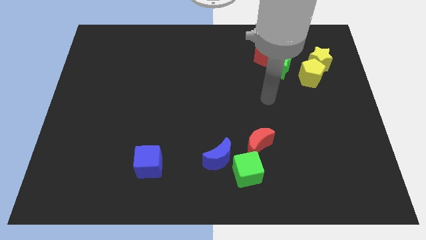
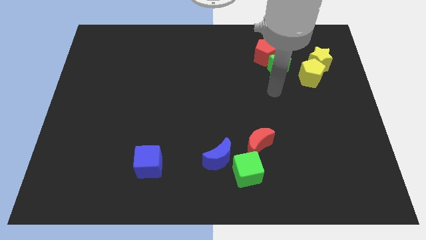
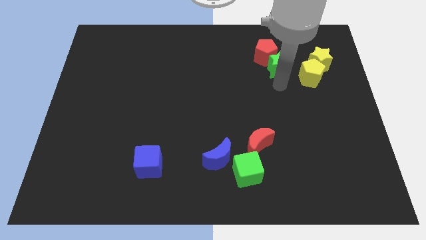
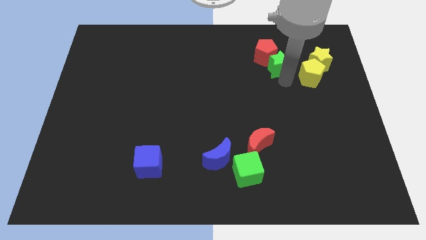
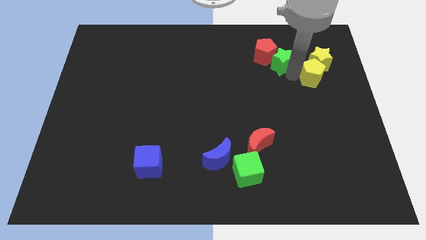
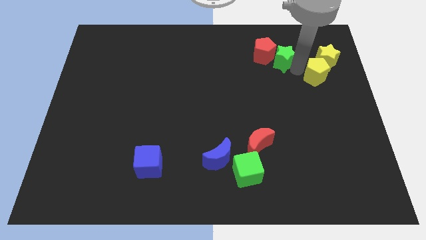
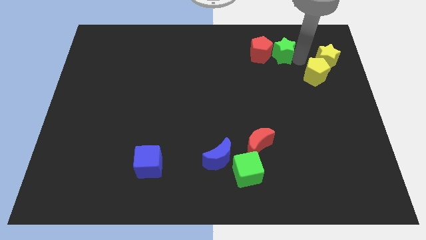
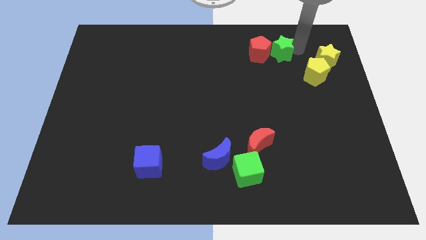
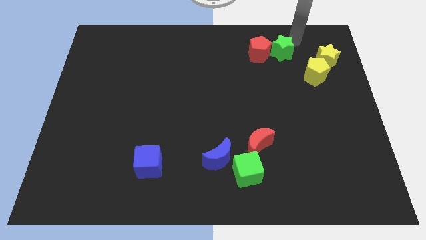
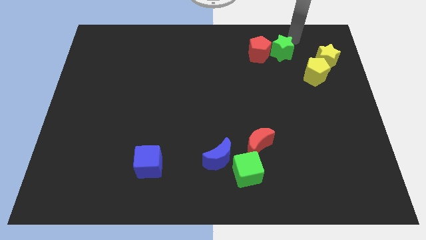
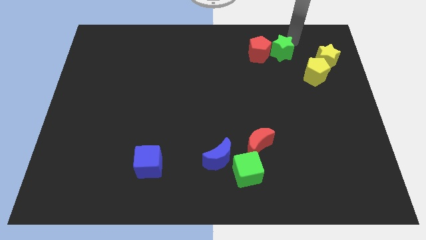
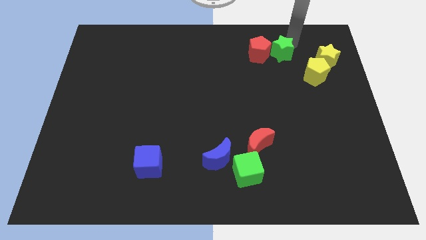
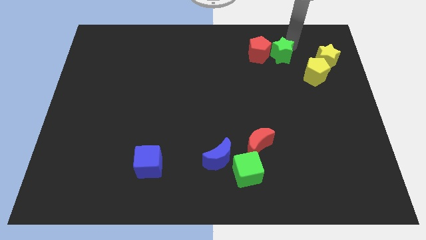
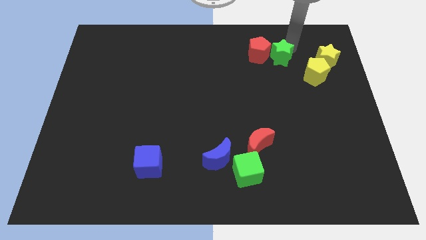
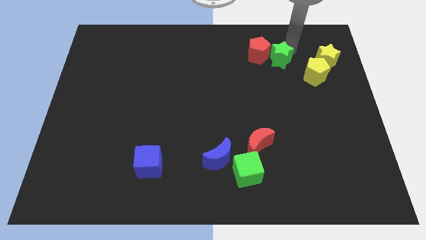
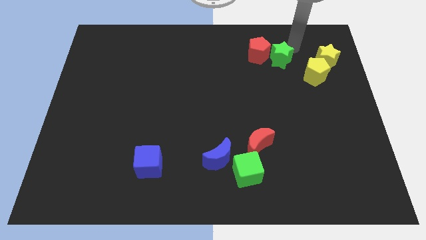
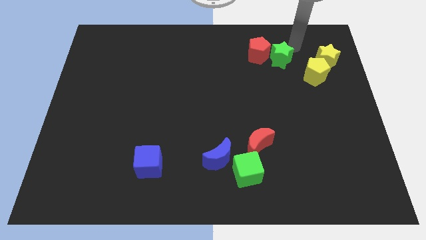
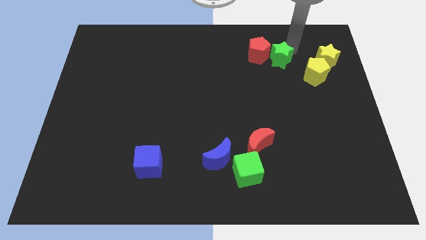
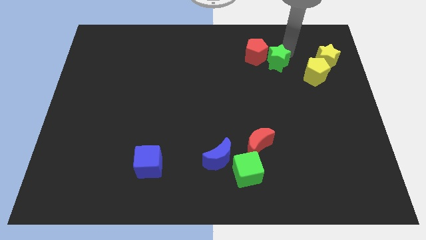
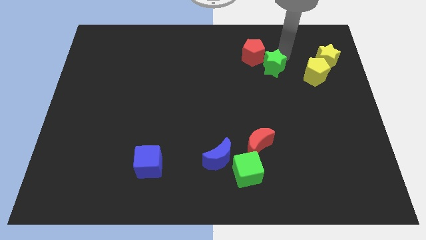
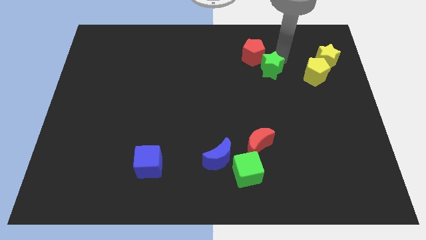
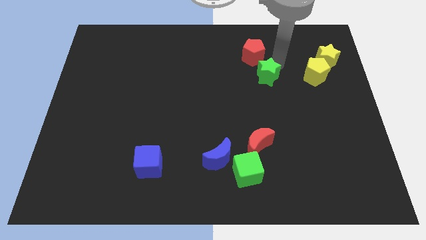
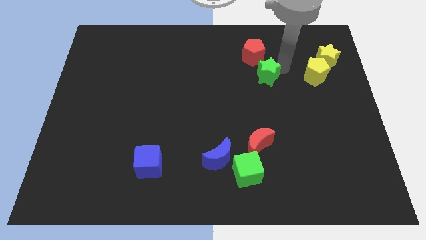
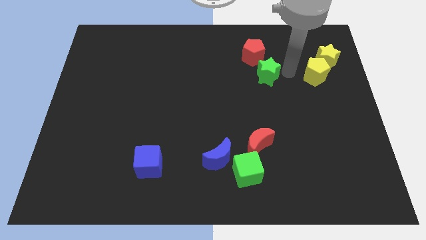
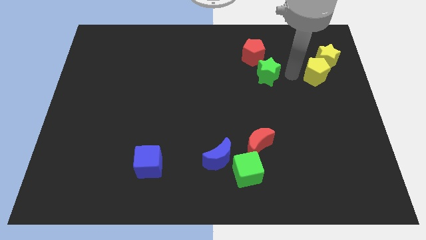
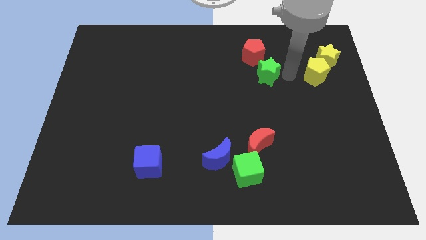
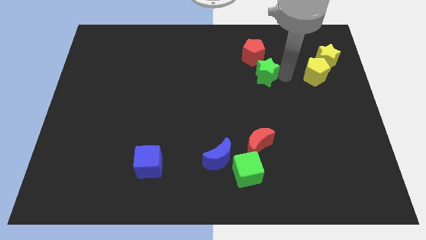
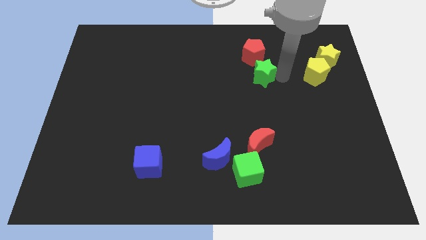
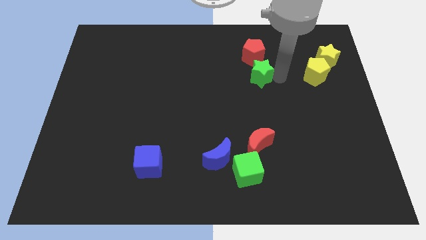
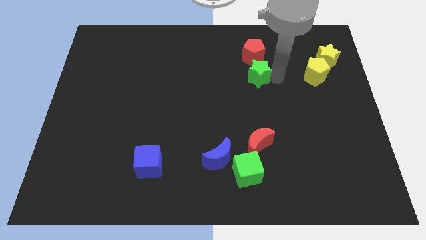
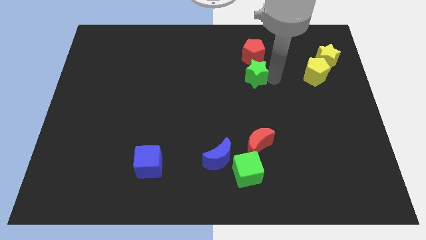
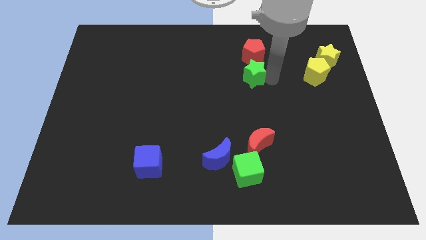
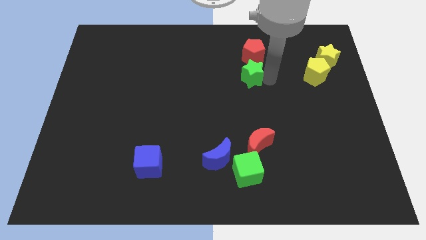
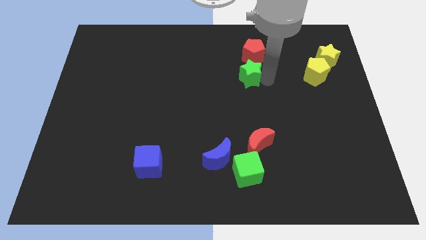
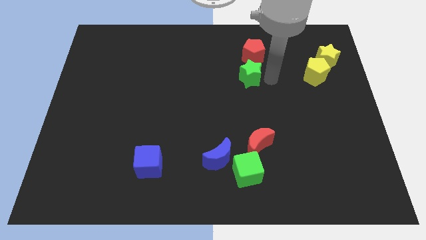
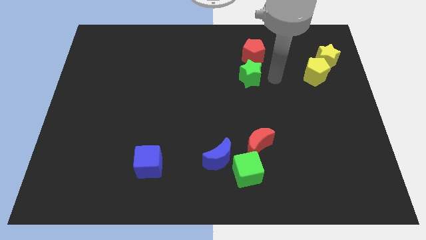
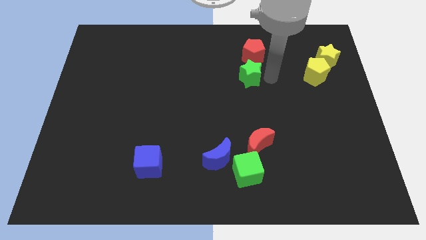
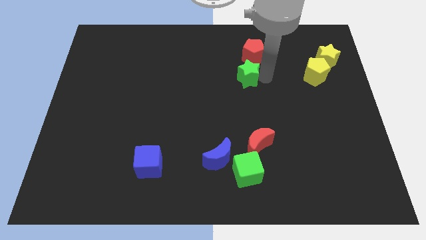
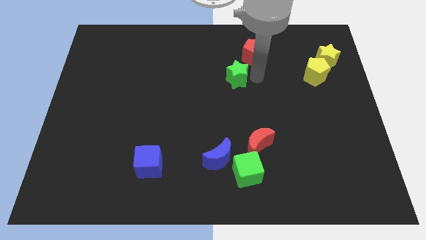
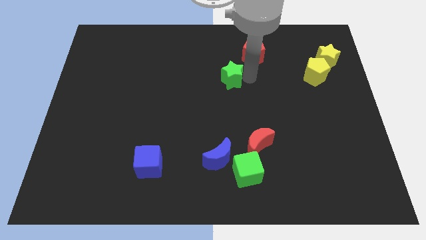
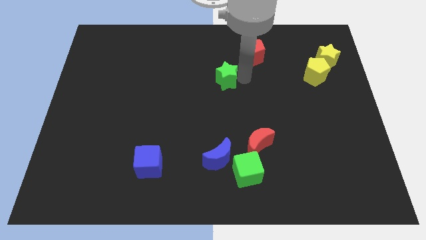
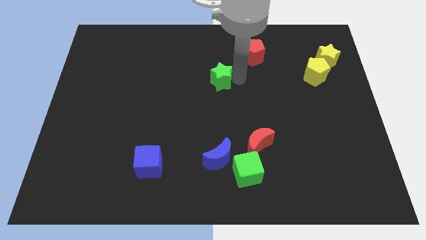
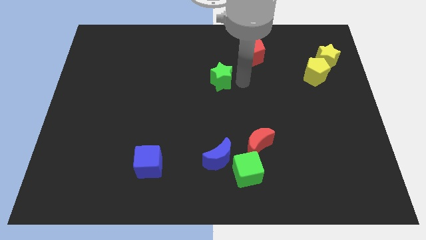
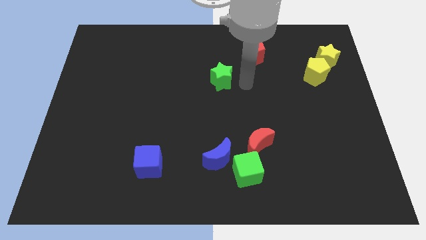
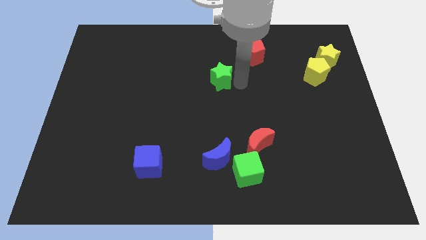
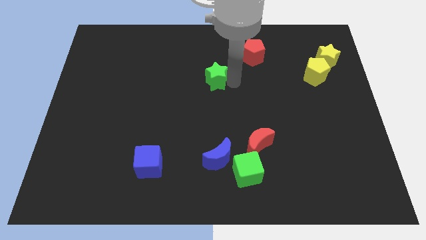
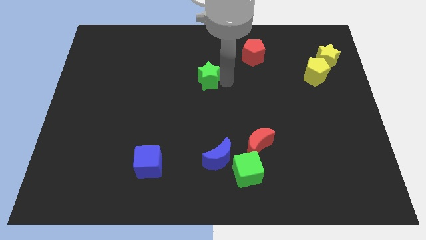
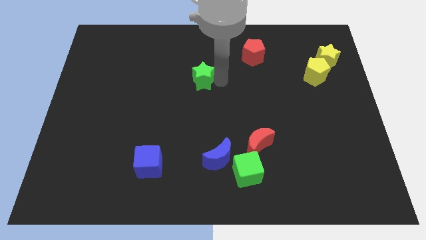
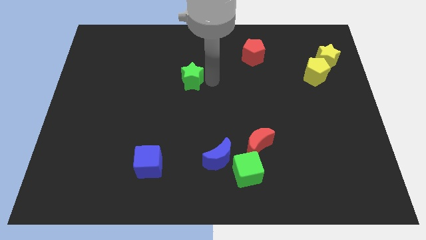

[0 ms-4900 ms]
push the green star left

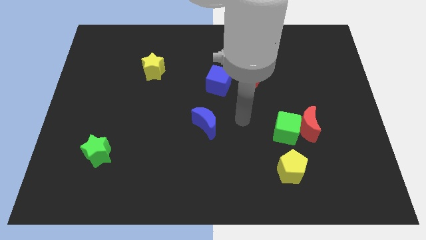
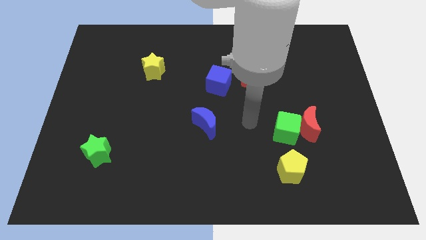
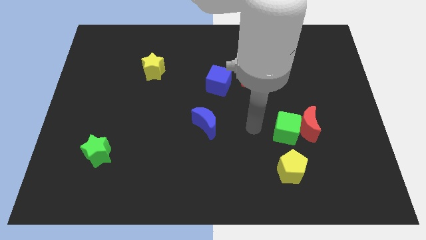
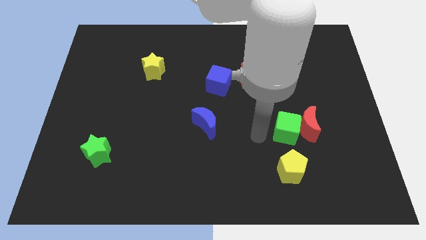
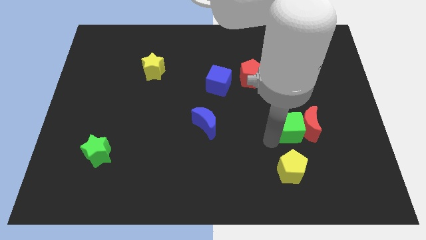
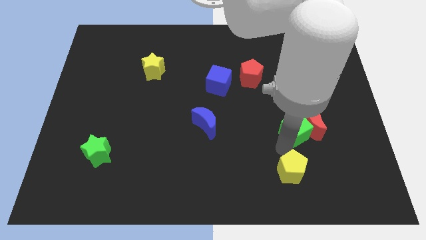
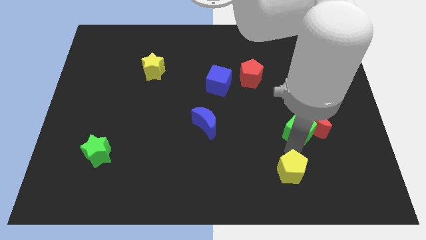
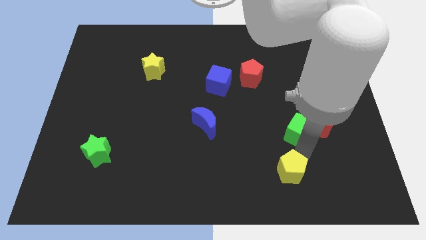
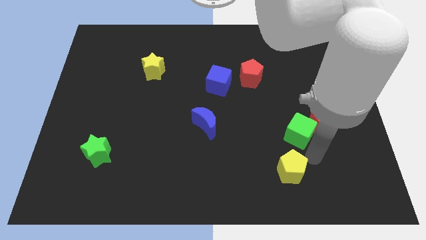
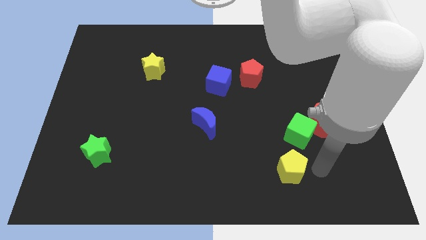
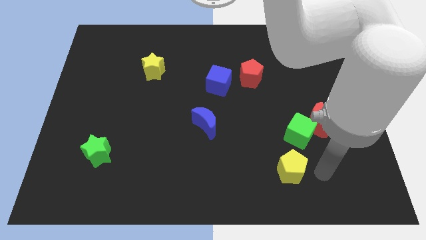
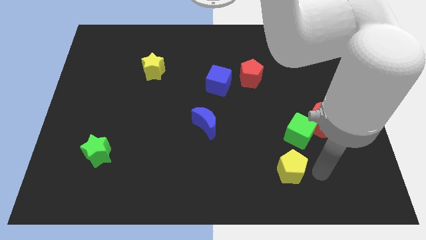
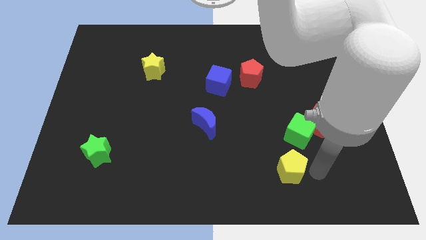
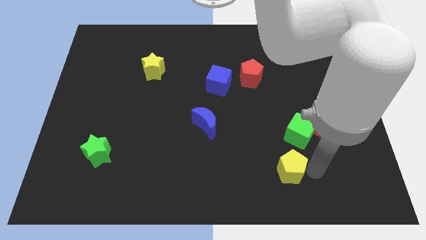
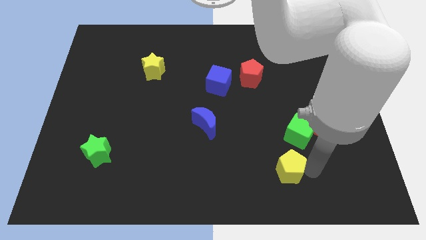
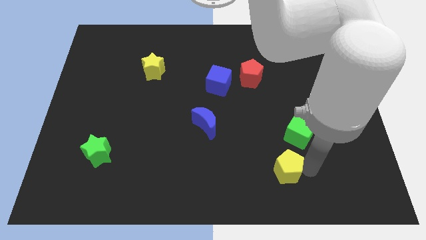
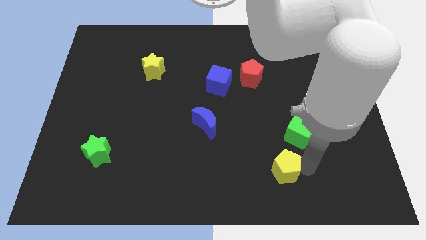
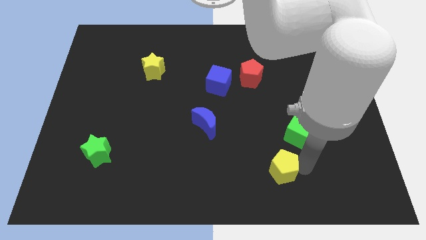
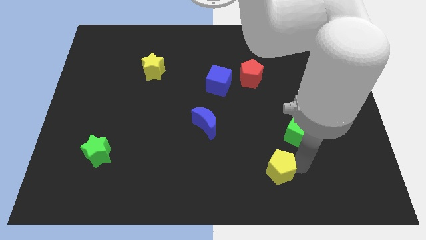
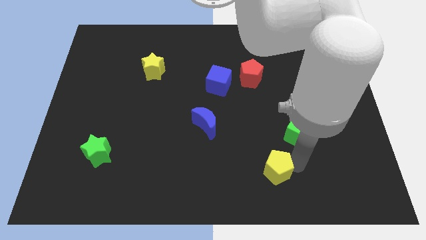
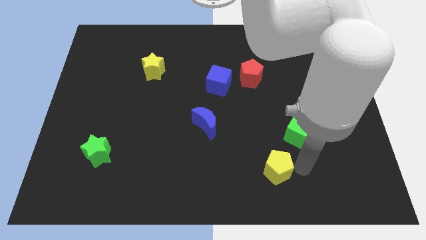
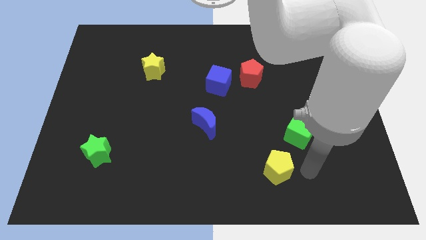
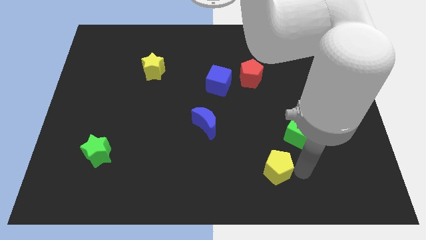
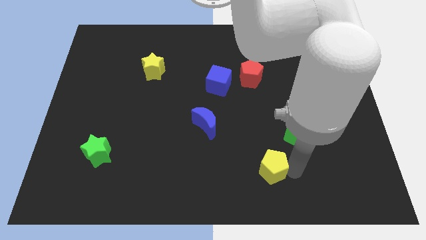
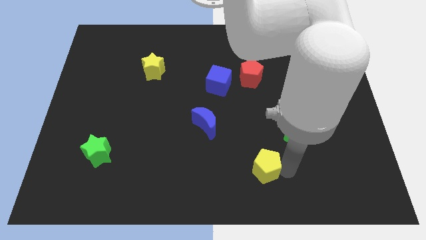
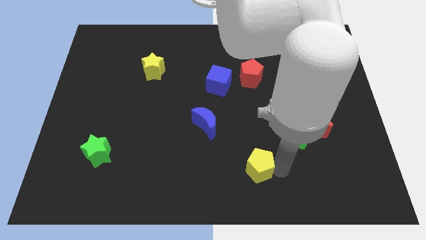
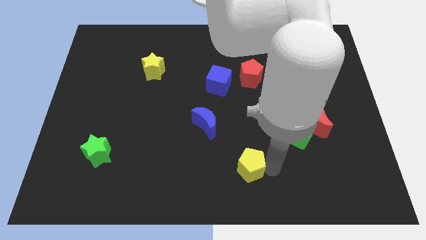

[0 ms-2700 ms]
move the yellow pentagon to the left a little

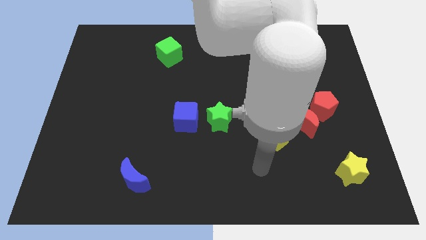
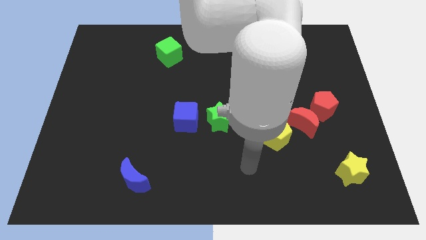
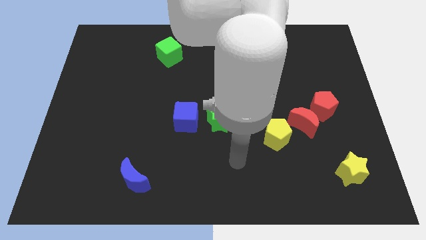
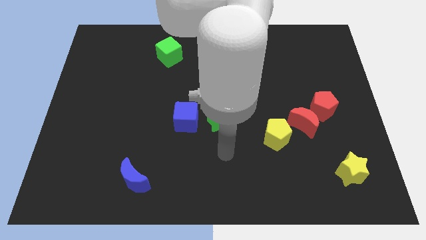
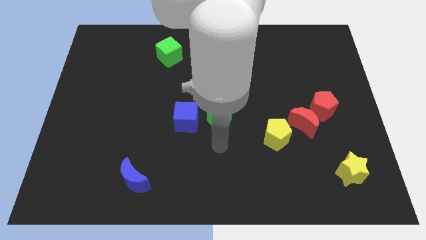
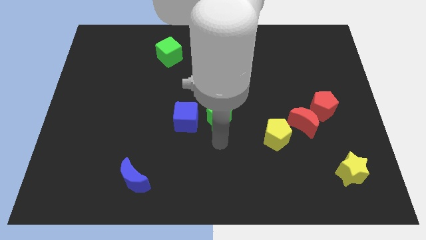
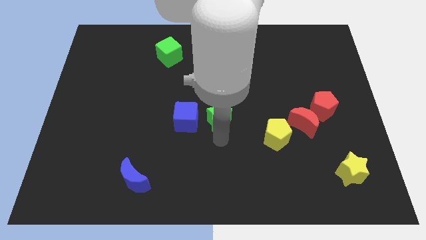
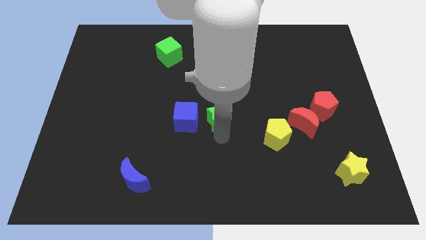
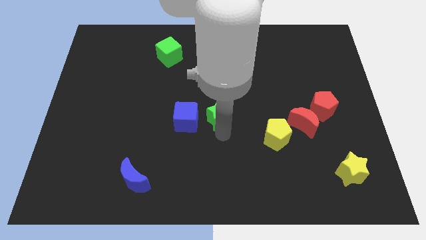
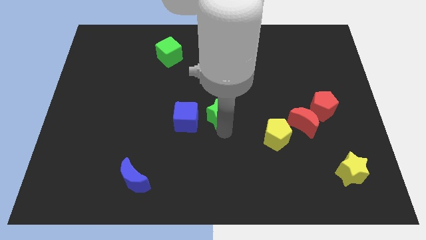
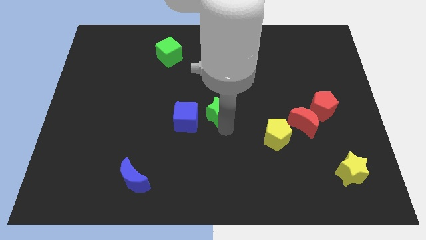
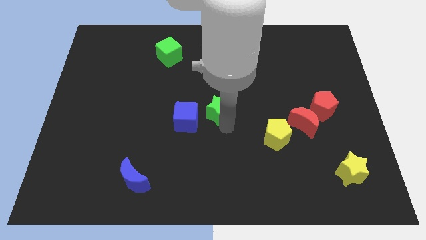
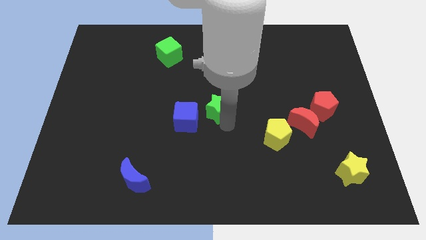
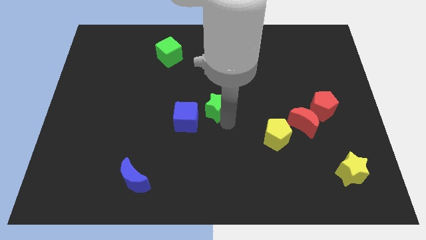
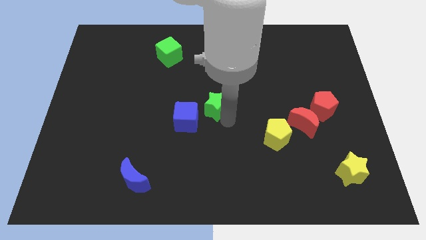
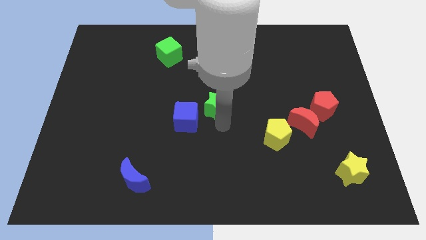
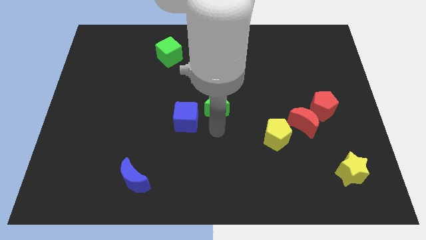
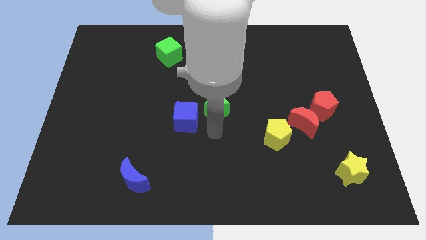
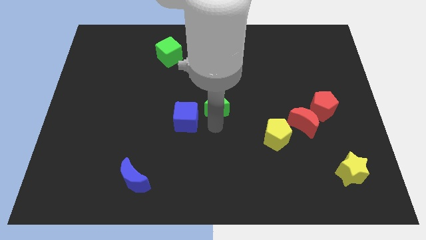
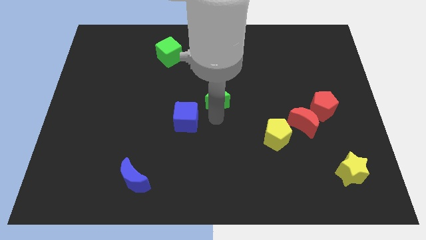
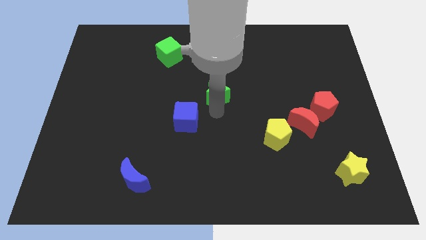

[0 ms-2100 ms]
slightly slide the green star upwards
